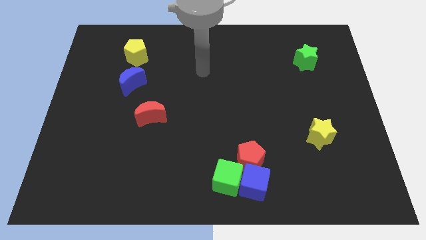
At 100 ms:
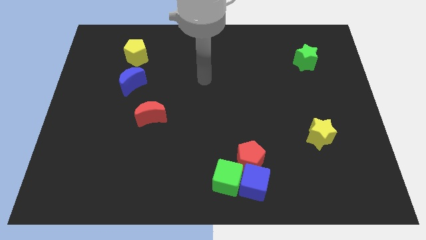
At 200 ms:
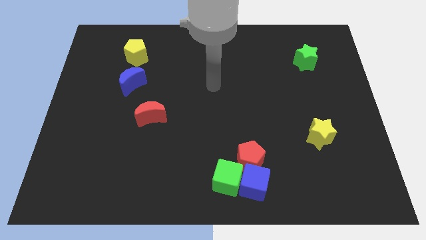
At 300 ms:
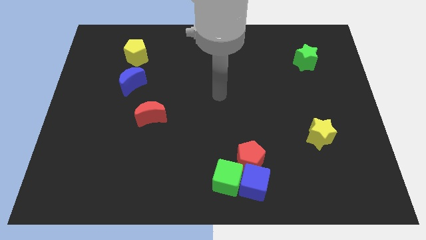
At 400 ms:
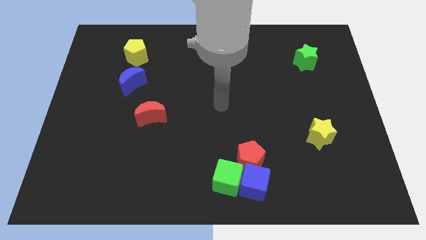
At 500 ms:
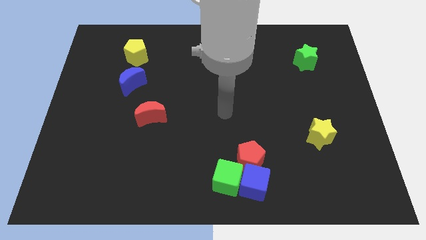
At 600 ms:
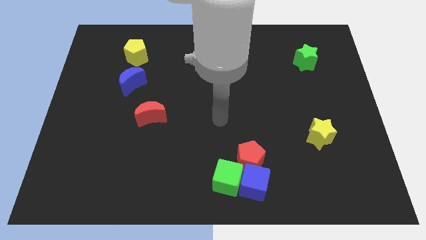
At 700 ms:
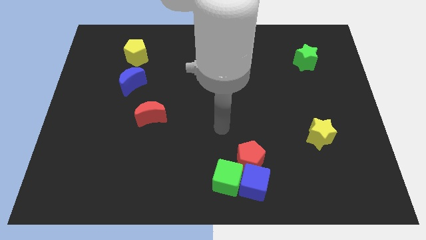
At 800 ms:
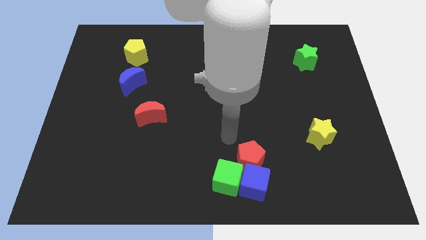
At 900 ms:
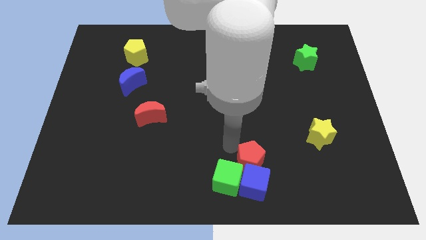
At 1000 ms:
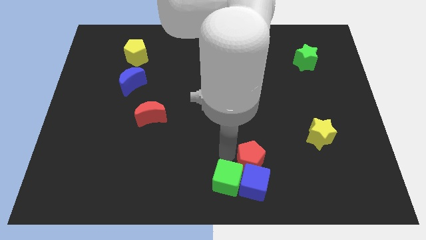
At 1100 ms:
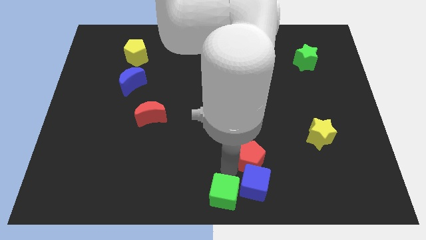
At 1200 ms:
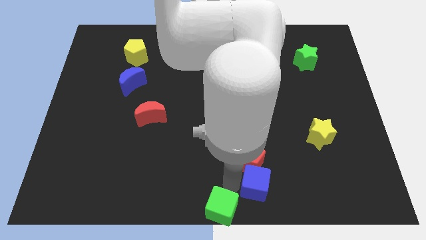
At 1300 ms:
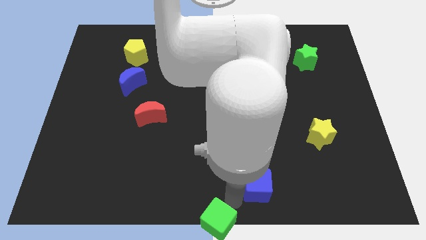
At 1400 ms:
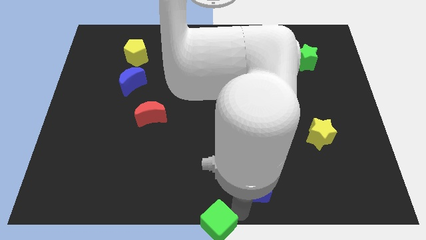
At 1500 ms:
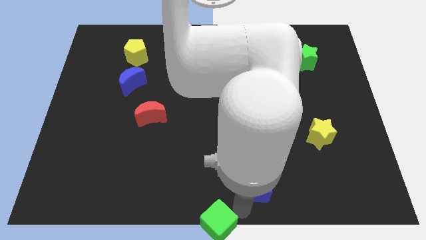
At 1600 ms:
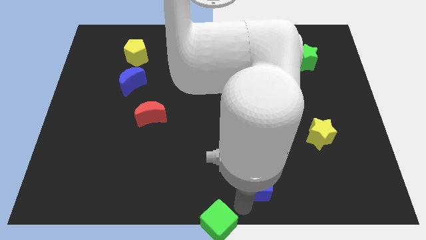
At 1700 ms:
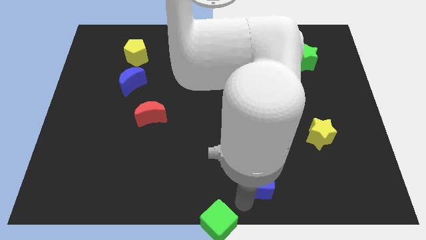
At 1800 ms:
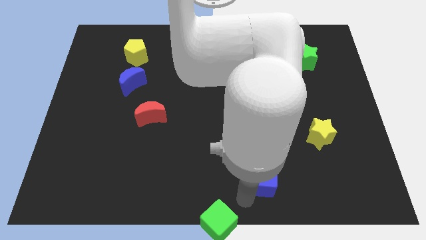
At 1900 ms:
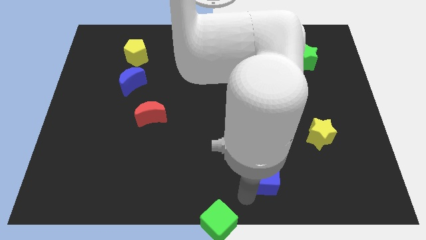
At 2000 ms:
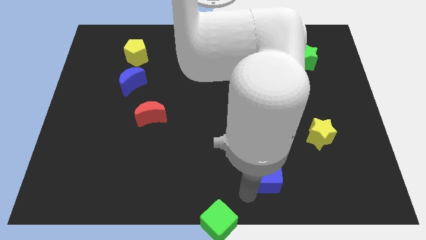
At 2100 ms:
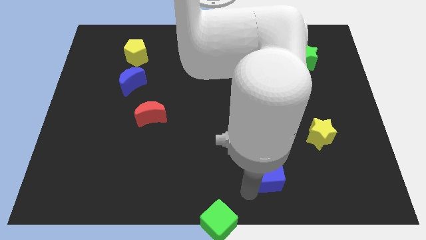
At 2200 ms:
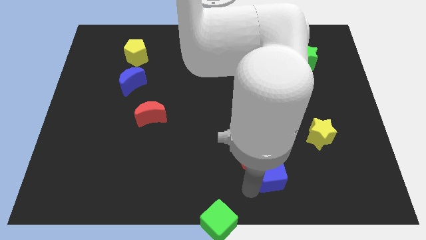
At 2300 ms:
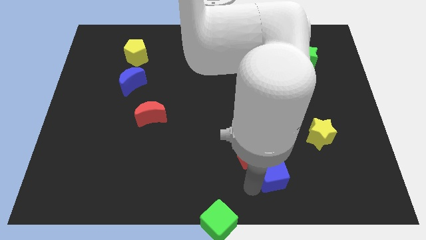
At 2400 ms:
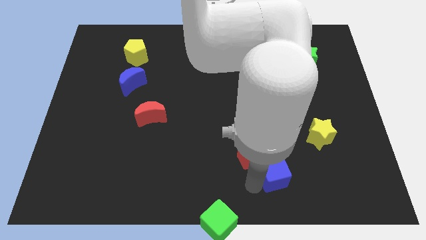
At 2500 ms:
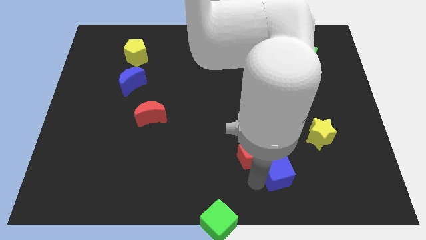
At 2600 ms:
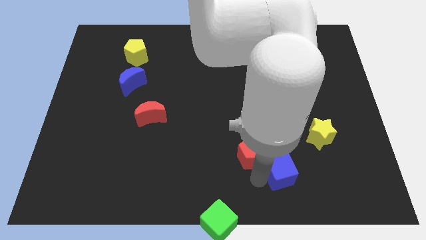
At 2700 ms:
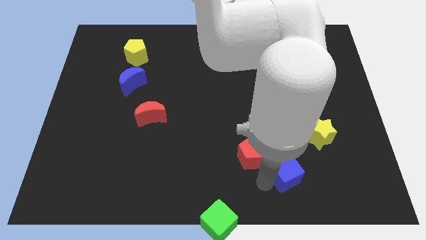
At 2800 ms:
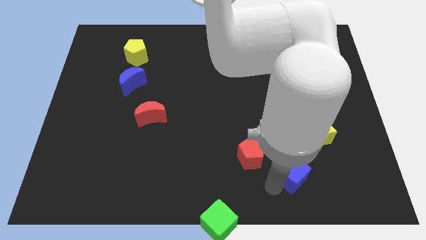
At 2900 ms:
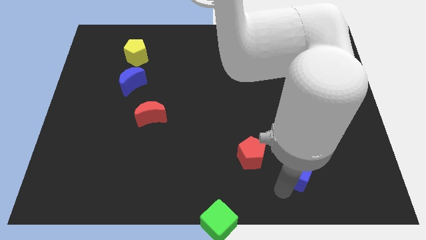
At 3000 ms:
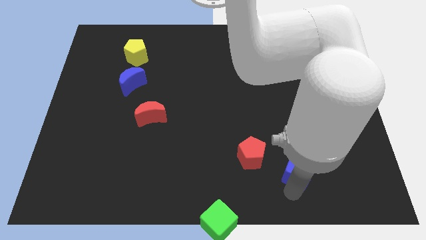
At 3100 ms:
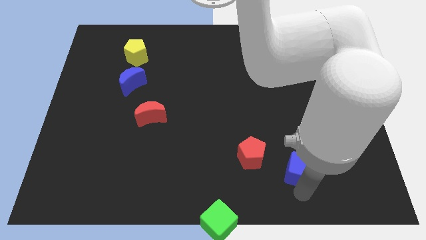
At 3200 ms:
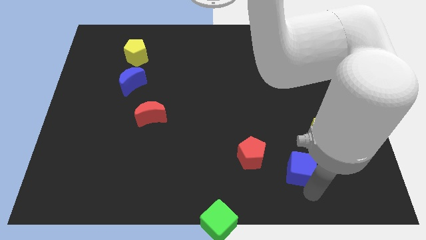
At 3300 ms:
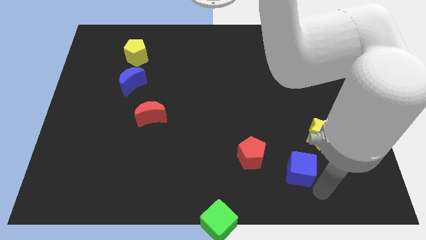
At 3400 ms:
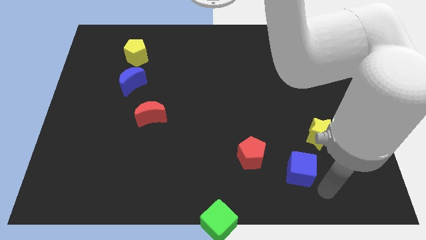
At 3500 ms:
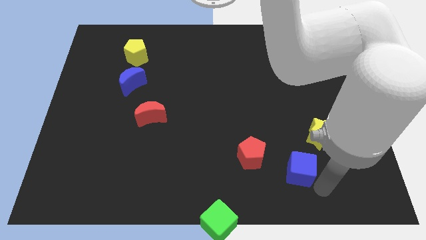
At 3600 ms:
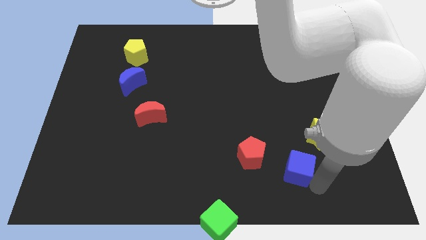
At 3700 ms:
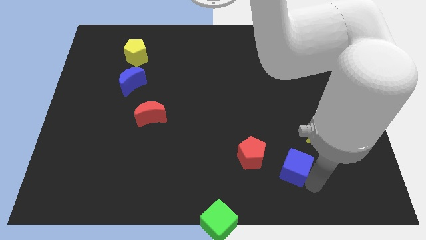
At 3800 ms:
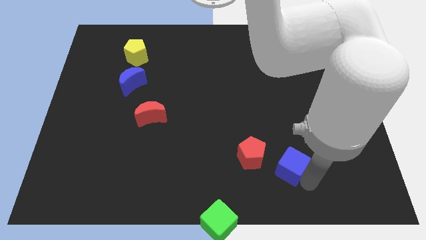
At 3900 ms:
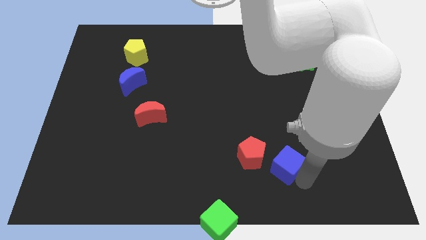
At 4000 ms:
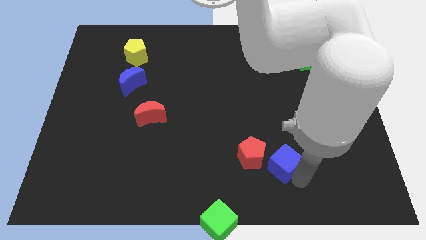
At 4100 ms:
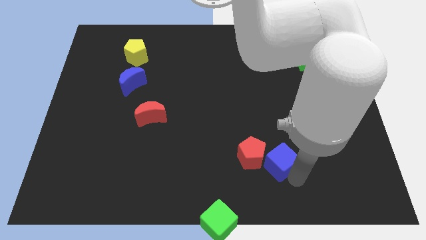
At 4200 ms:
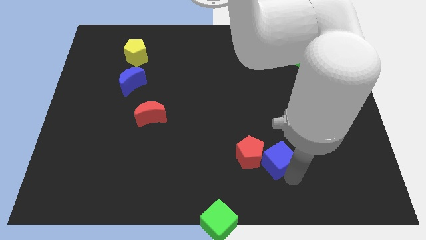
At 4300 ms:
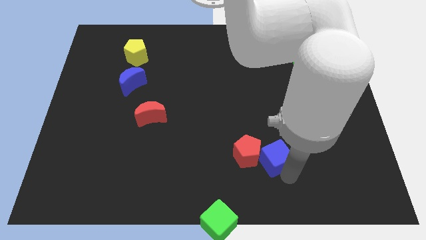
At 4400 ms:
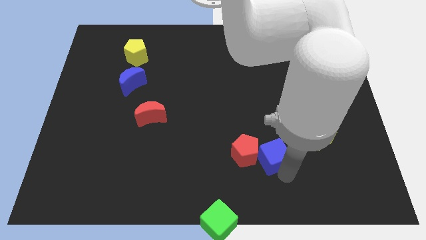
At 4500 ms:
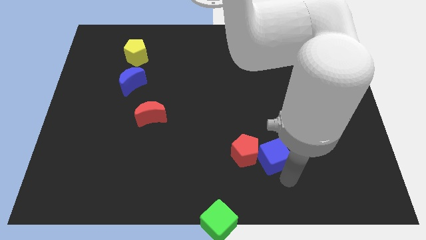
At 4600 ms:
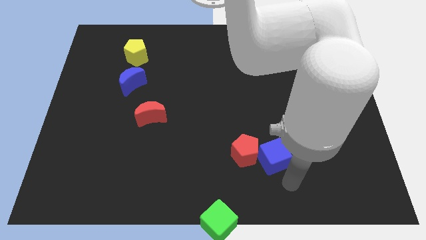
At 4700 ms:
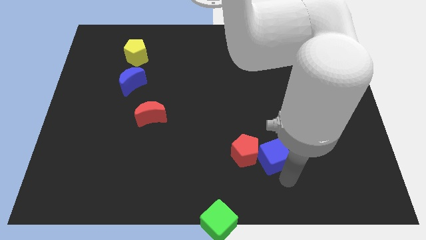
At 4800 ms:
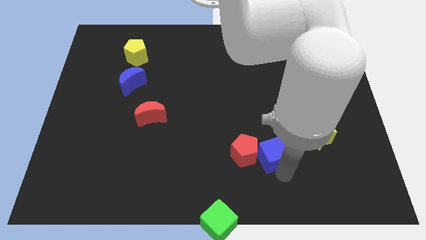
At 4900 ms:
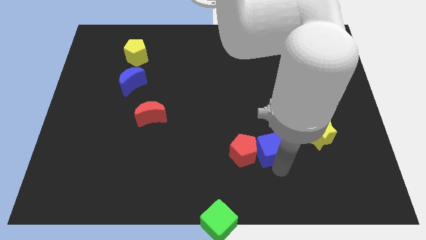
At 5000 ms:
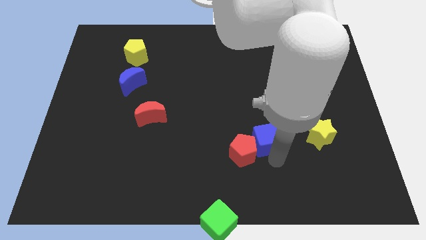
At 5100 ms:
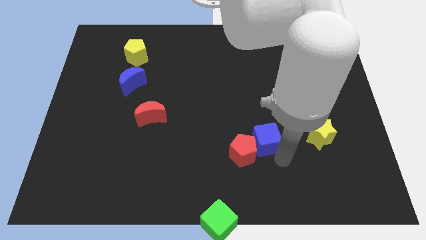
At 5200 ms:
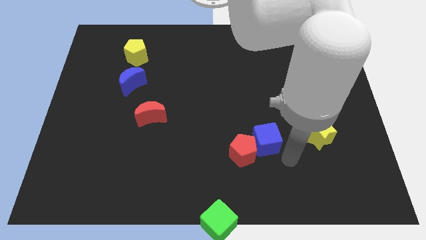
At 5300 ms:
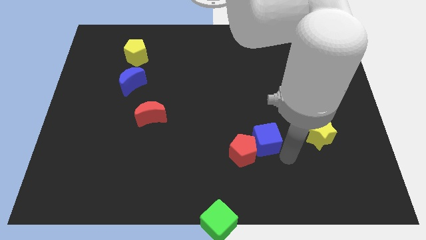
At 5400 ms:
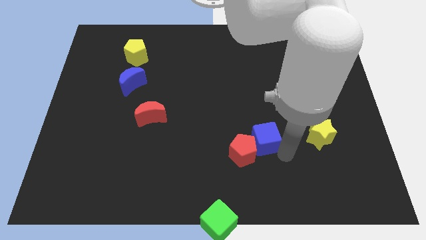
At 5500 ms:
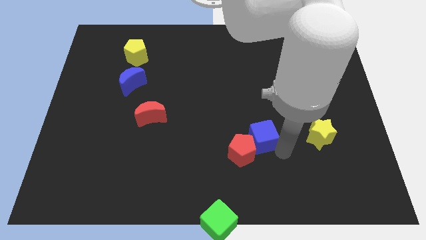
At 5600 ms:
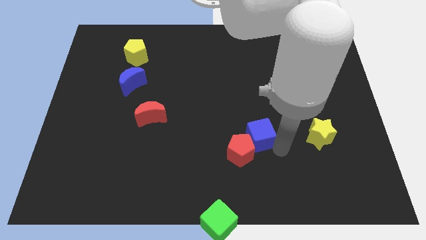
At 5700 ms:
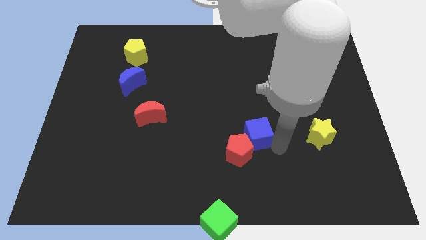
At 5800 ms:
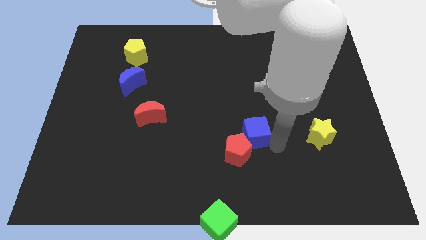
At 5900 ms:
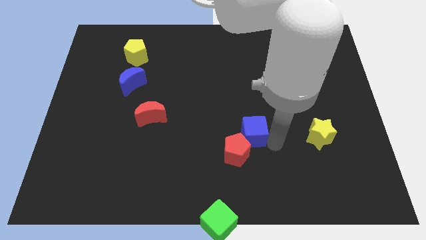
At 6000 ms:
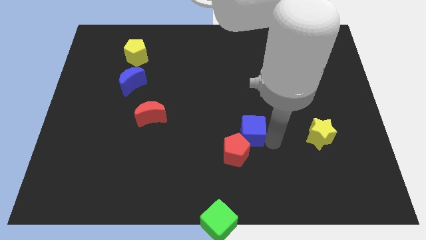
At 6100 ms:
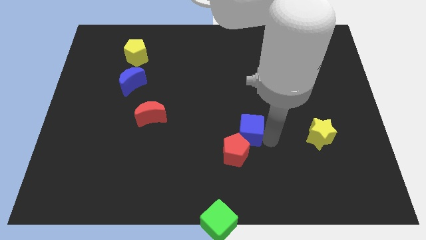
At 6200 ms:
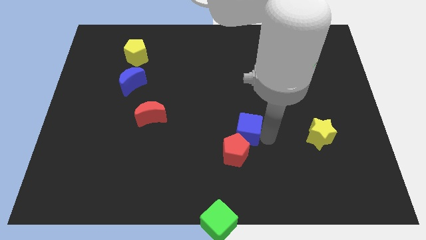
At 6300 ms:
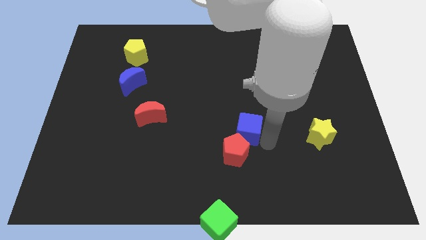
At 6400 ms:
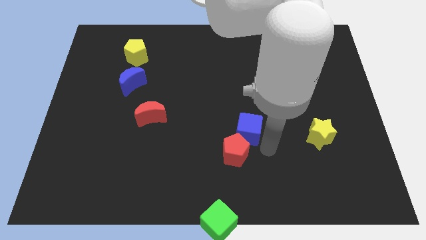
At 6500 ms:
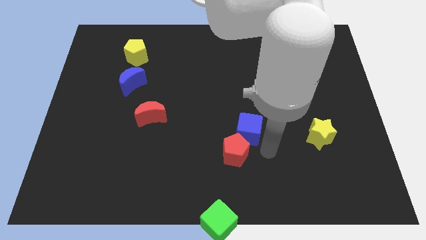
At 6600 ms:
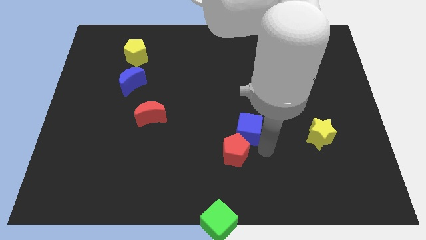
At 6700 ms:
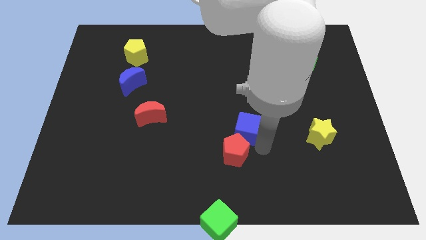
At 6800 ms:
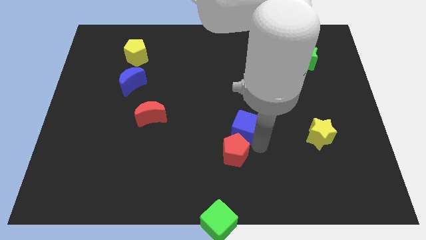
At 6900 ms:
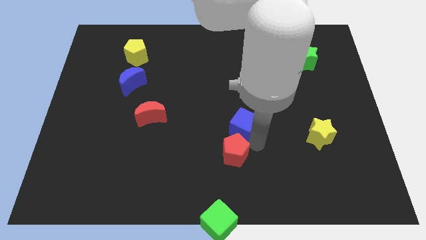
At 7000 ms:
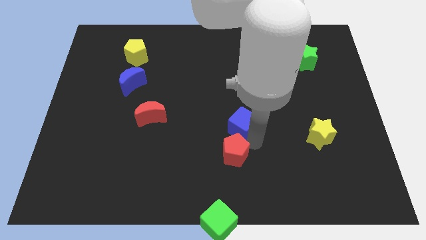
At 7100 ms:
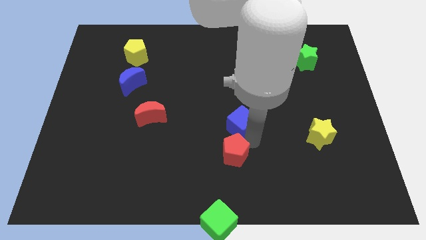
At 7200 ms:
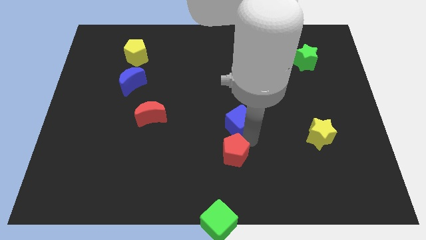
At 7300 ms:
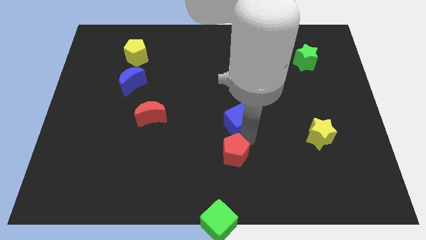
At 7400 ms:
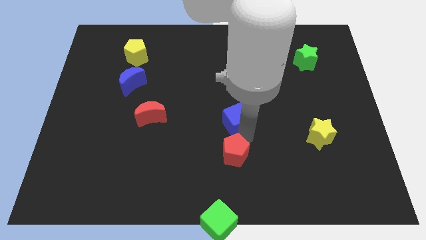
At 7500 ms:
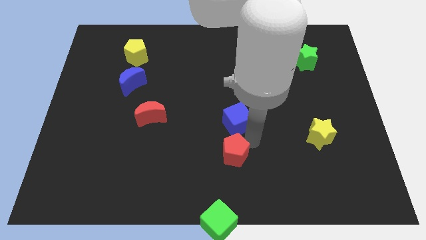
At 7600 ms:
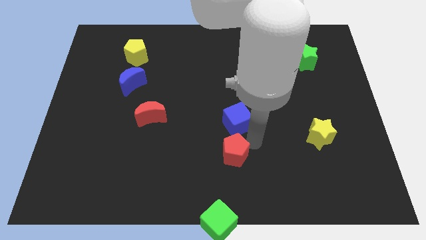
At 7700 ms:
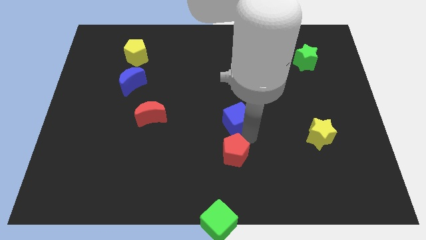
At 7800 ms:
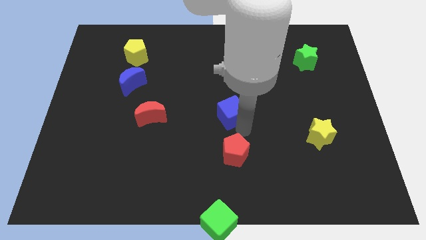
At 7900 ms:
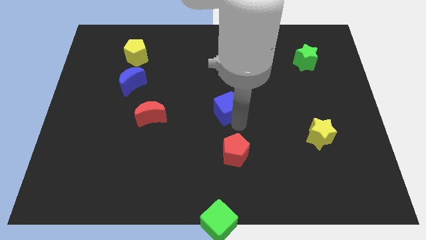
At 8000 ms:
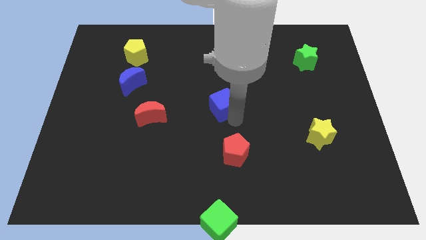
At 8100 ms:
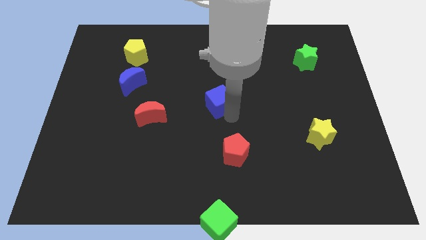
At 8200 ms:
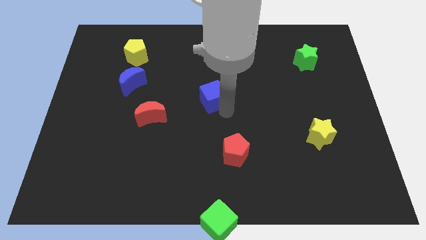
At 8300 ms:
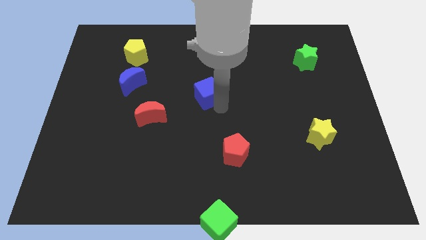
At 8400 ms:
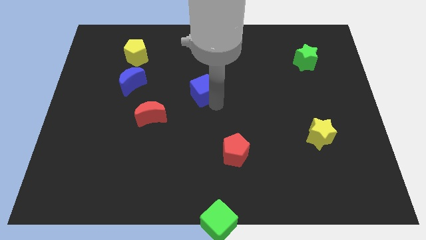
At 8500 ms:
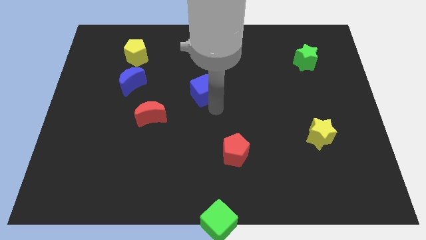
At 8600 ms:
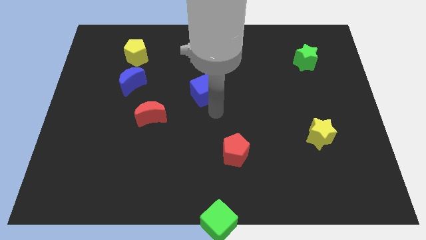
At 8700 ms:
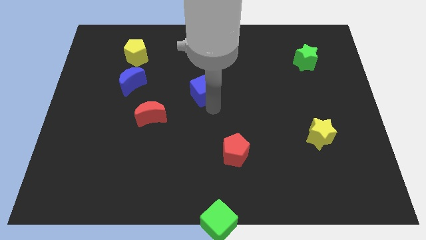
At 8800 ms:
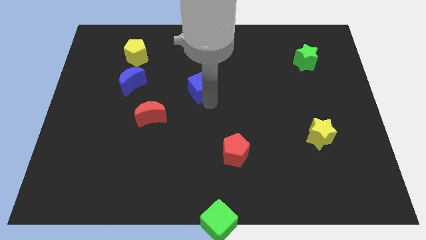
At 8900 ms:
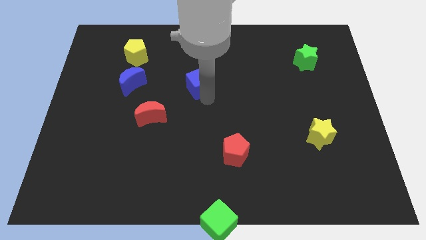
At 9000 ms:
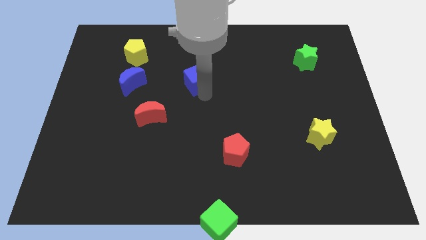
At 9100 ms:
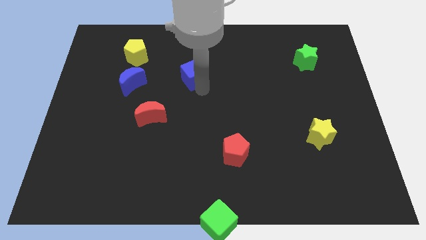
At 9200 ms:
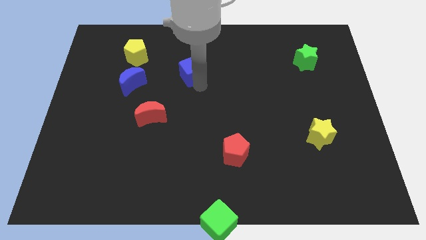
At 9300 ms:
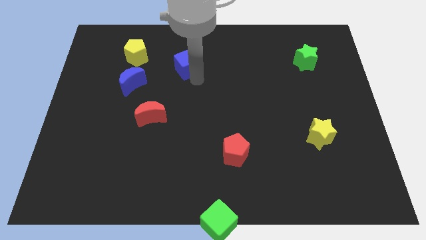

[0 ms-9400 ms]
move the blue cube to the right of the yellow pentagon
